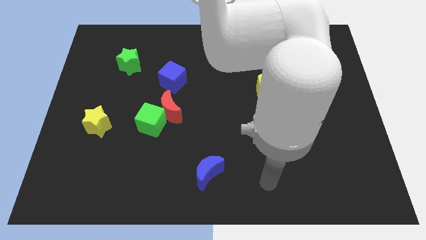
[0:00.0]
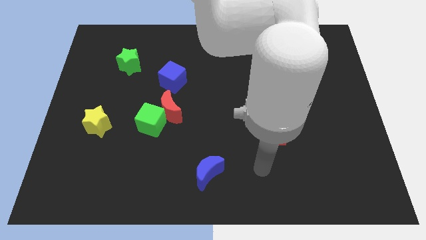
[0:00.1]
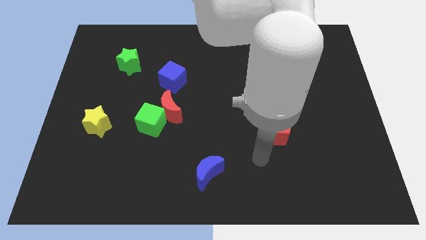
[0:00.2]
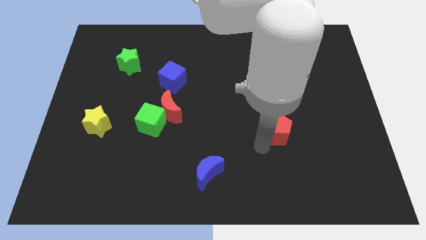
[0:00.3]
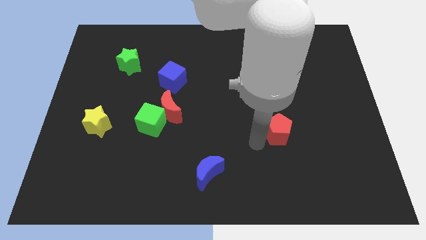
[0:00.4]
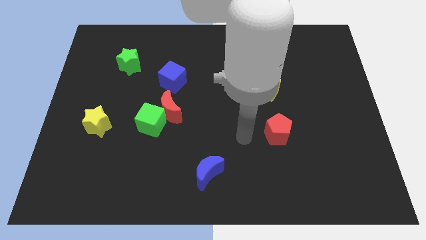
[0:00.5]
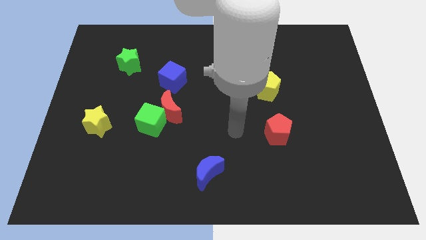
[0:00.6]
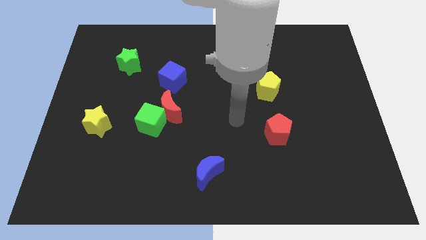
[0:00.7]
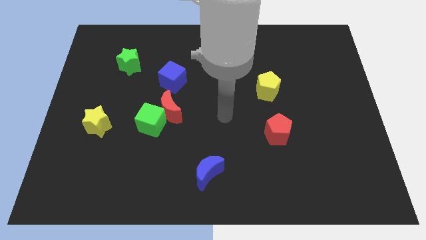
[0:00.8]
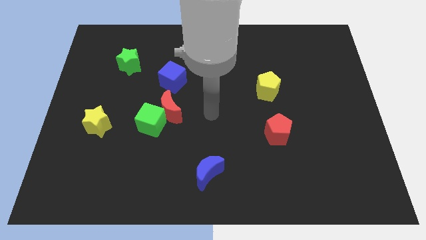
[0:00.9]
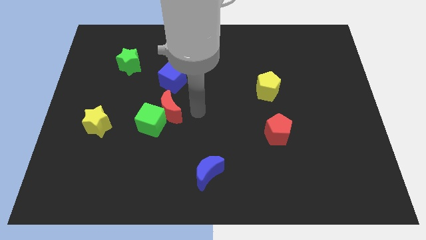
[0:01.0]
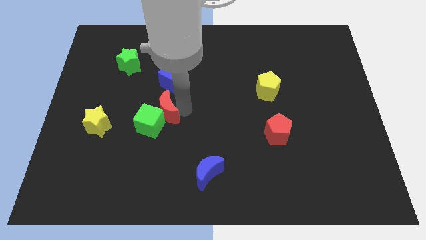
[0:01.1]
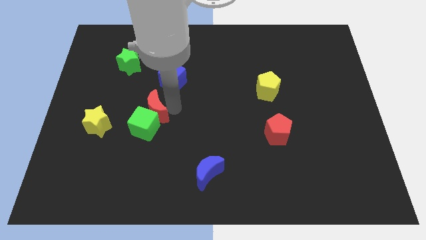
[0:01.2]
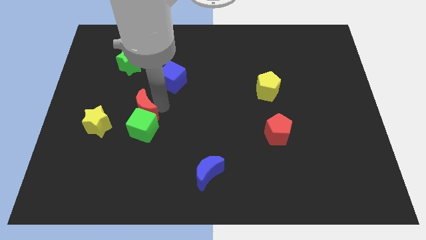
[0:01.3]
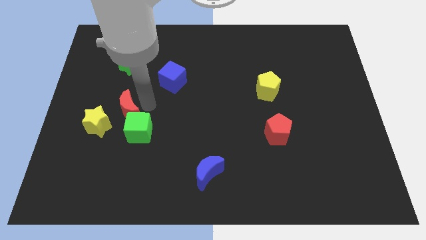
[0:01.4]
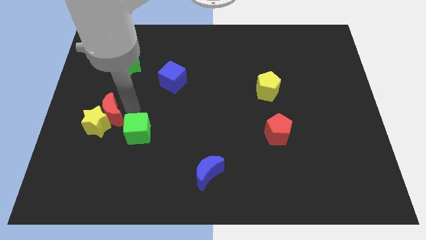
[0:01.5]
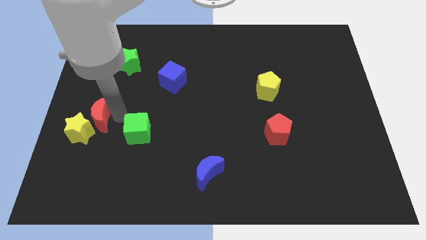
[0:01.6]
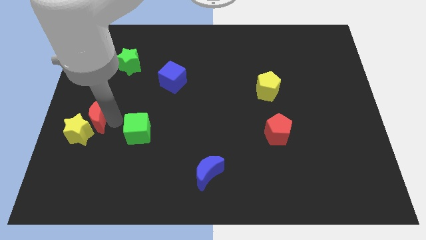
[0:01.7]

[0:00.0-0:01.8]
pull the green cube apart from the red moon

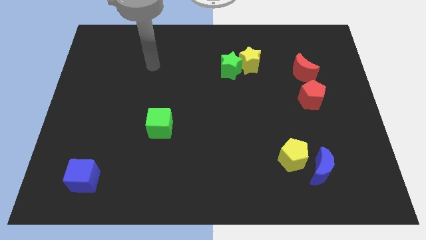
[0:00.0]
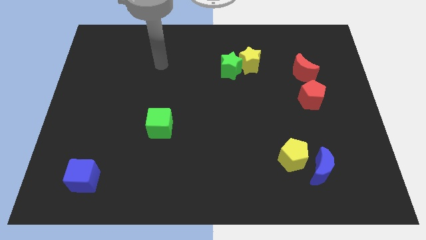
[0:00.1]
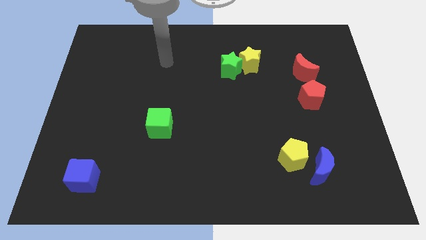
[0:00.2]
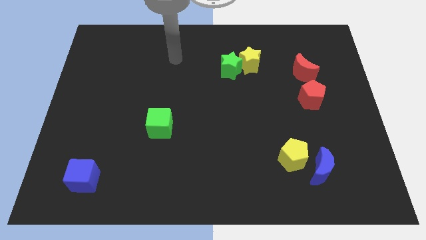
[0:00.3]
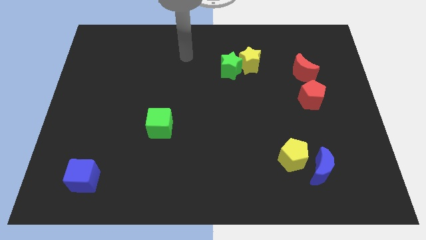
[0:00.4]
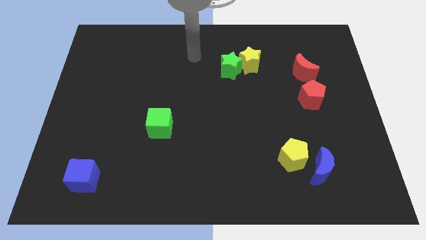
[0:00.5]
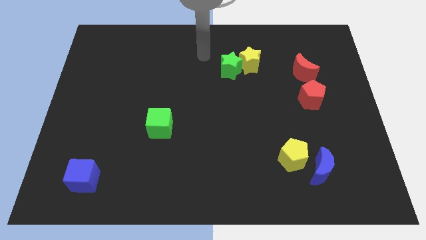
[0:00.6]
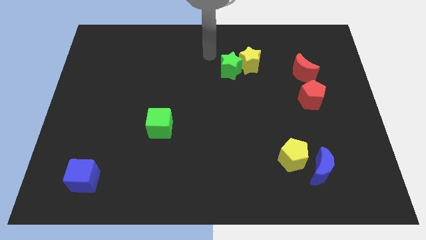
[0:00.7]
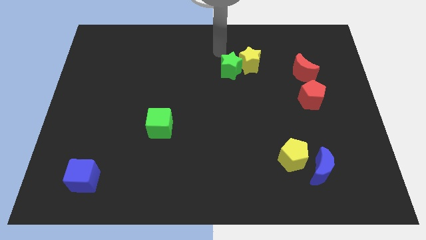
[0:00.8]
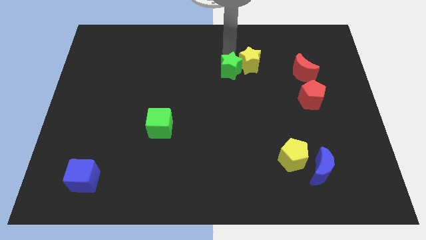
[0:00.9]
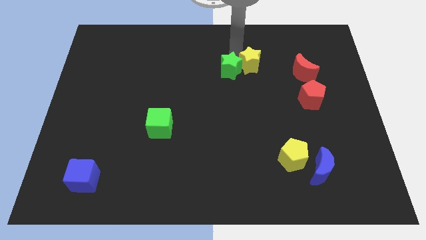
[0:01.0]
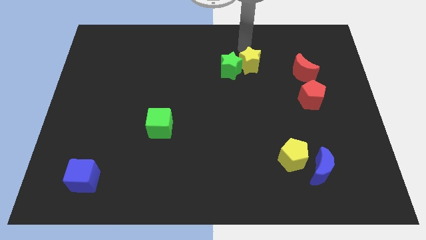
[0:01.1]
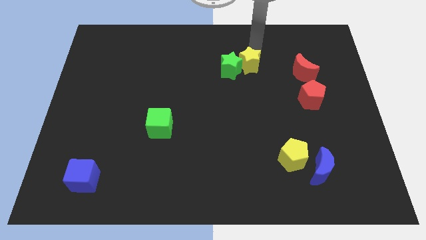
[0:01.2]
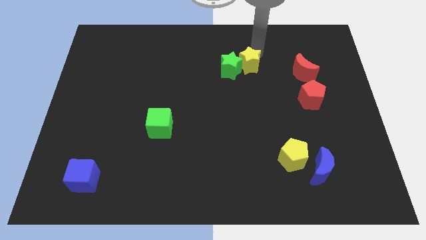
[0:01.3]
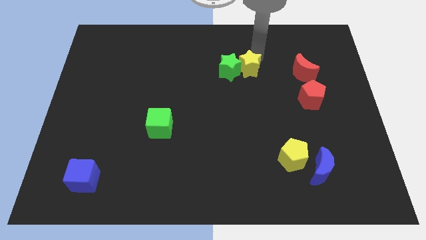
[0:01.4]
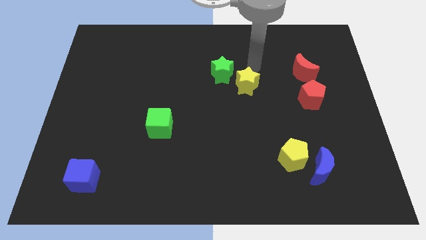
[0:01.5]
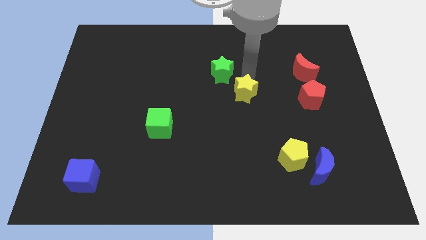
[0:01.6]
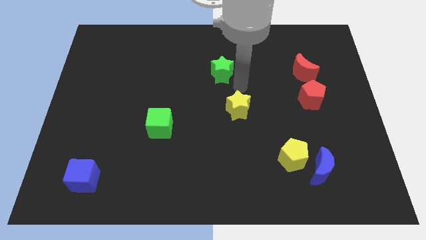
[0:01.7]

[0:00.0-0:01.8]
move the green star away from the yellow star

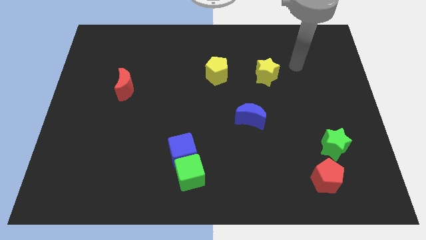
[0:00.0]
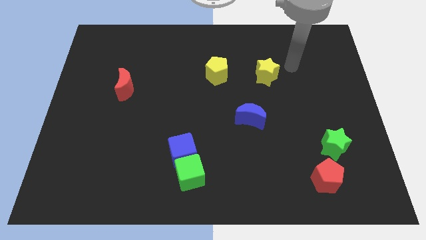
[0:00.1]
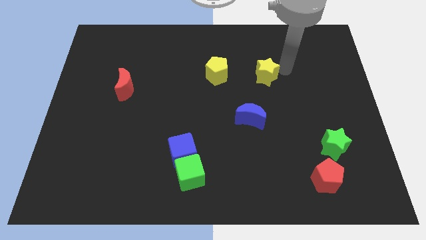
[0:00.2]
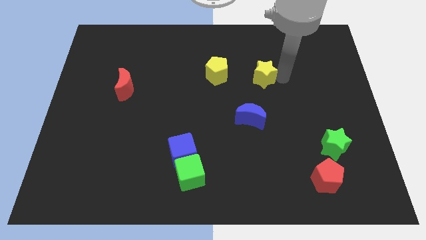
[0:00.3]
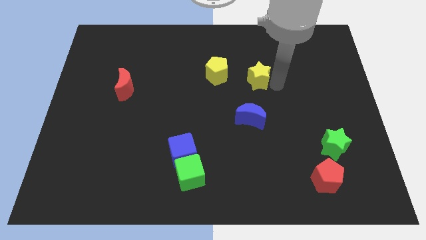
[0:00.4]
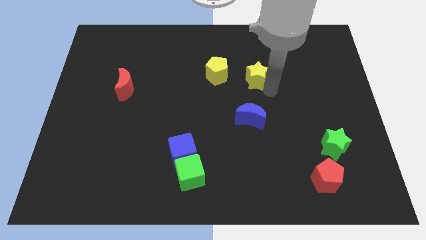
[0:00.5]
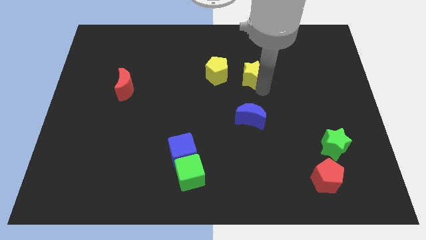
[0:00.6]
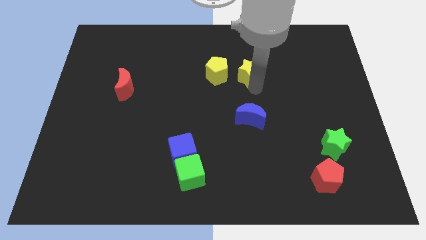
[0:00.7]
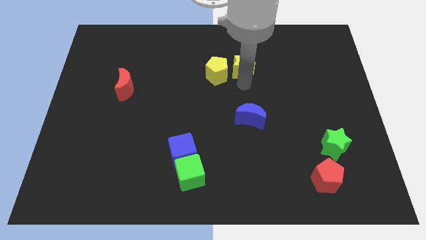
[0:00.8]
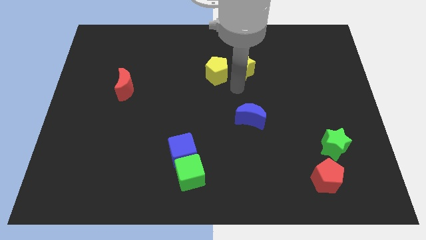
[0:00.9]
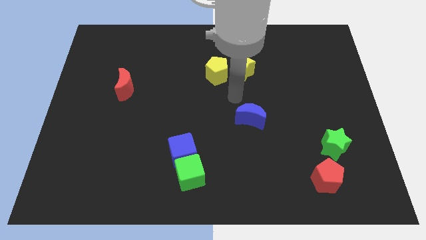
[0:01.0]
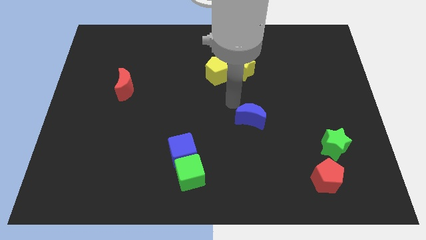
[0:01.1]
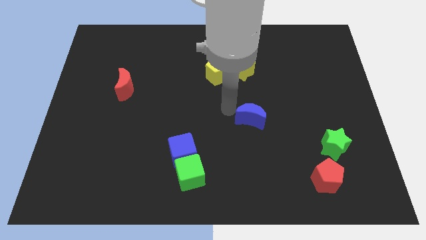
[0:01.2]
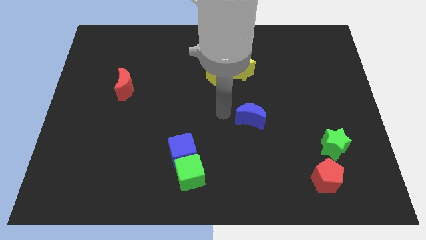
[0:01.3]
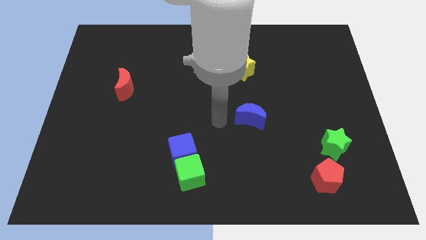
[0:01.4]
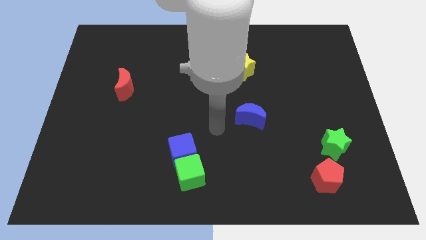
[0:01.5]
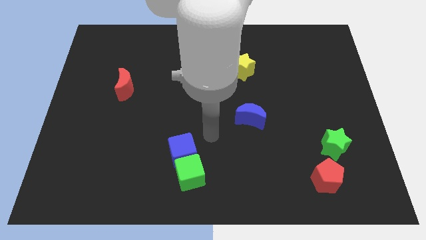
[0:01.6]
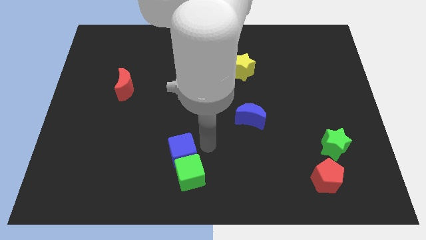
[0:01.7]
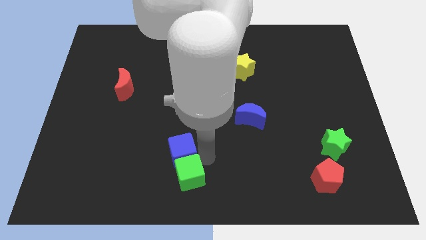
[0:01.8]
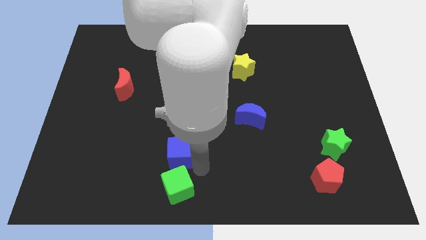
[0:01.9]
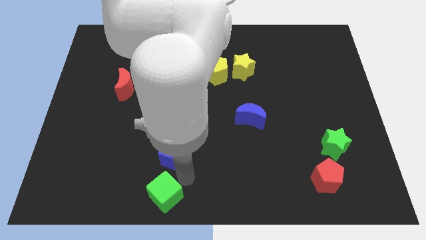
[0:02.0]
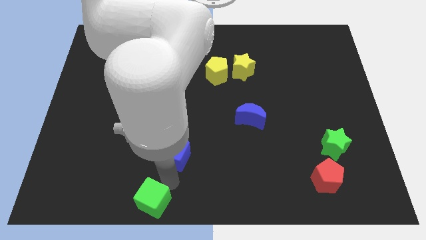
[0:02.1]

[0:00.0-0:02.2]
pull the blue cube apart from the green cube

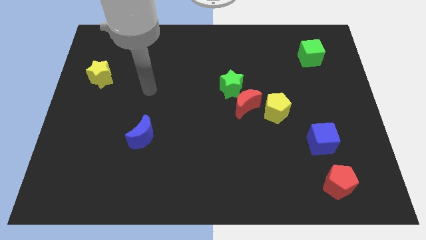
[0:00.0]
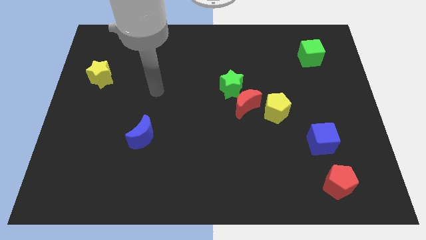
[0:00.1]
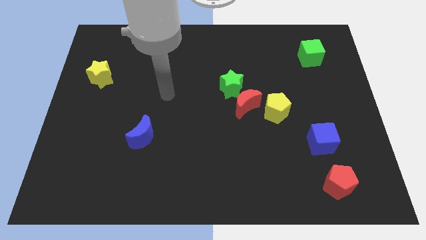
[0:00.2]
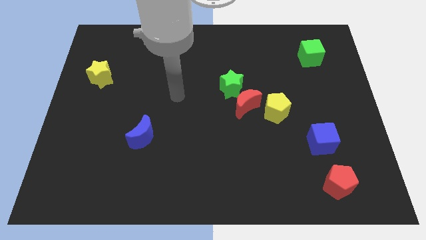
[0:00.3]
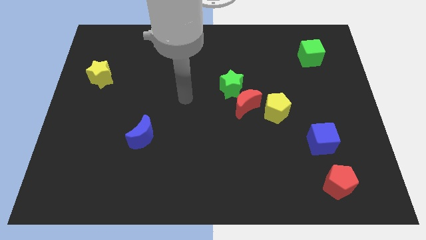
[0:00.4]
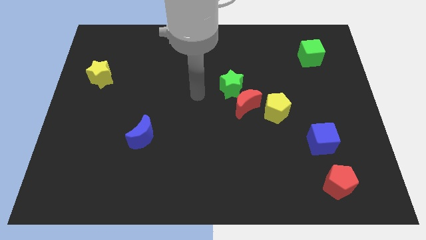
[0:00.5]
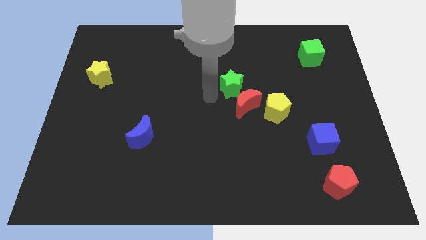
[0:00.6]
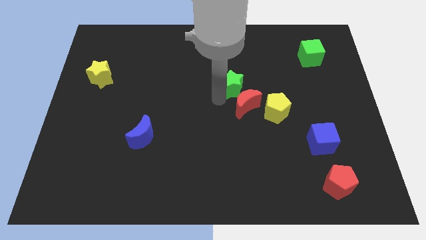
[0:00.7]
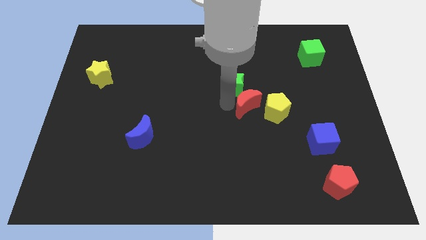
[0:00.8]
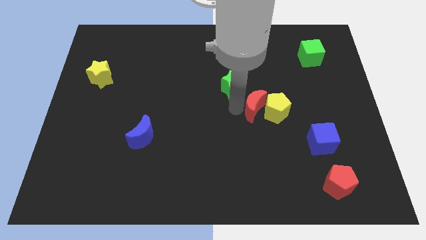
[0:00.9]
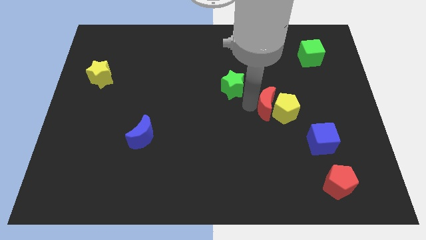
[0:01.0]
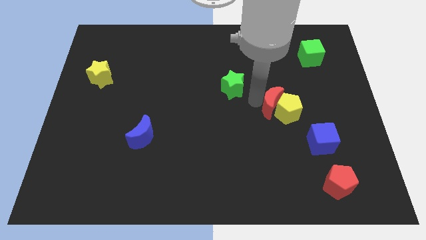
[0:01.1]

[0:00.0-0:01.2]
move the green star away from the red moon

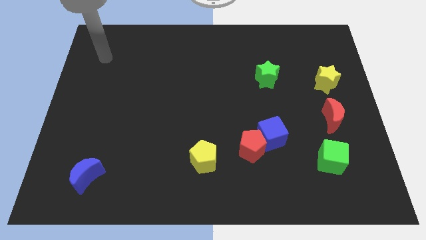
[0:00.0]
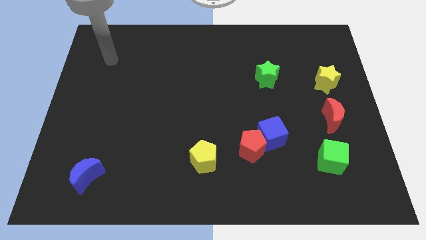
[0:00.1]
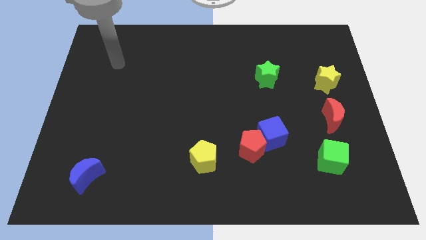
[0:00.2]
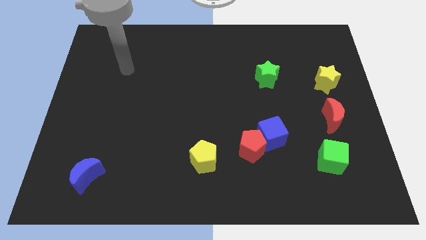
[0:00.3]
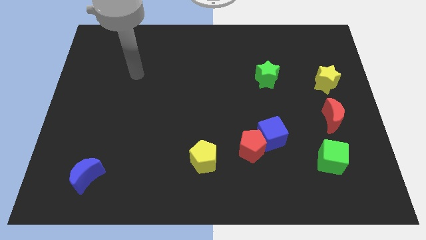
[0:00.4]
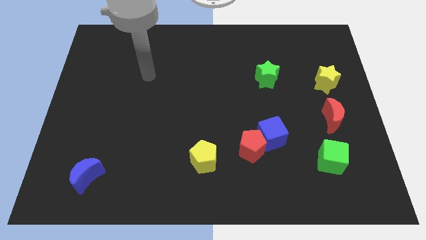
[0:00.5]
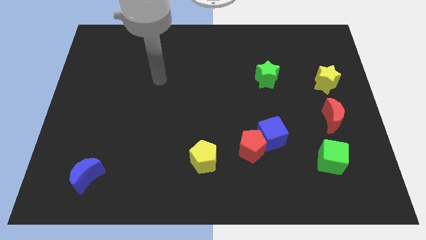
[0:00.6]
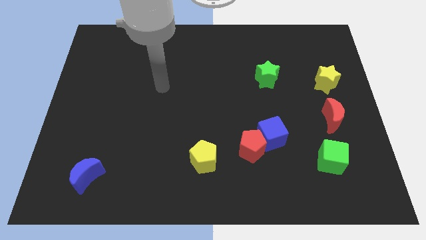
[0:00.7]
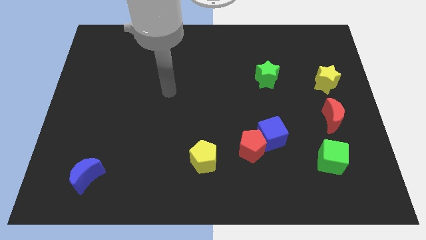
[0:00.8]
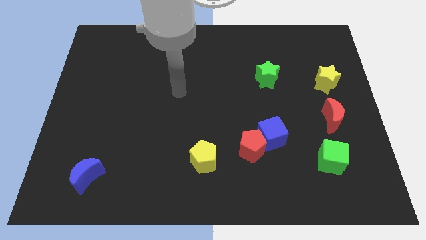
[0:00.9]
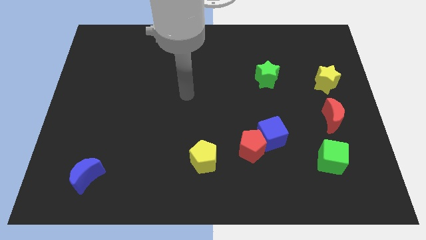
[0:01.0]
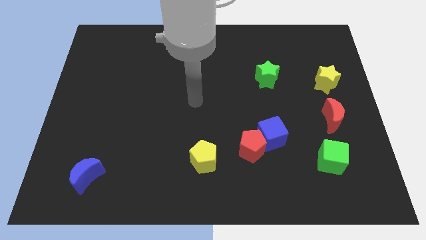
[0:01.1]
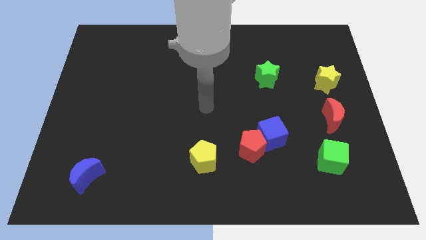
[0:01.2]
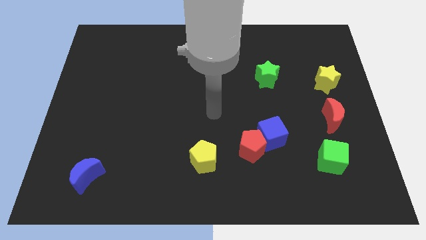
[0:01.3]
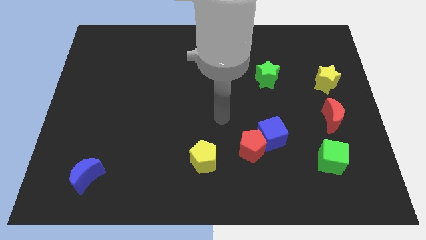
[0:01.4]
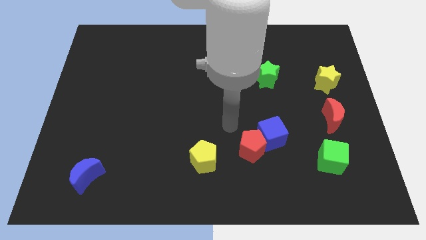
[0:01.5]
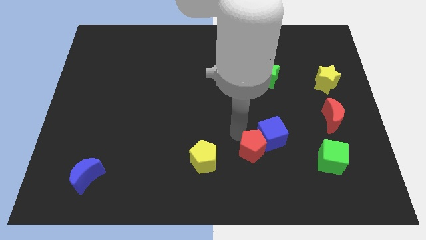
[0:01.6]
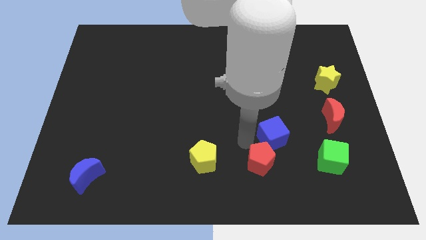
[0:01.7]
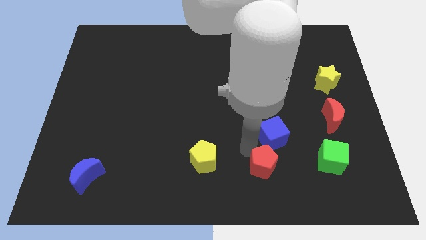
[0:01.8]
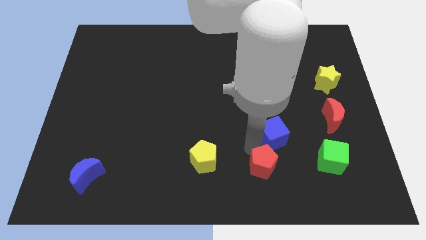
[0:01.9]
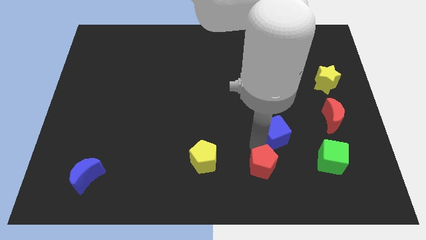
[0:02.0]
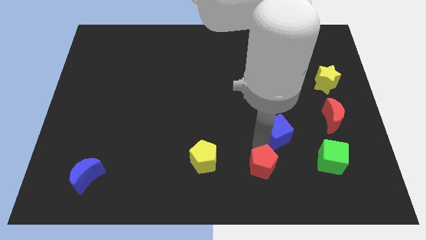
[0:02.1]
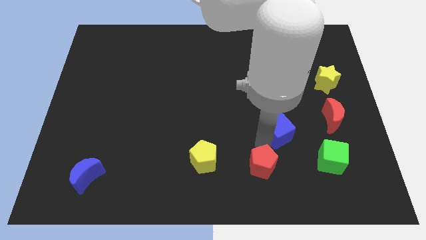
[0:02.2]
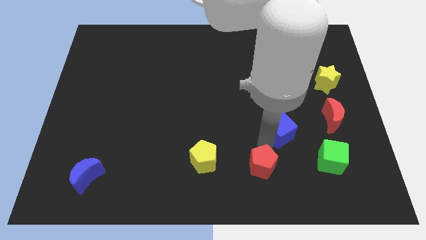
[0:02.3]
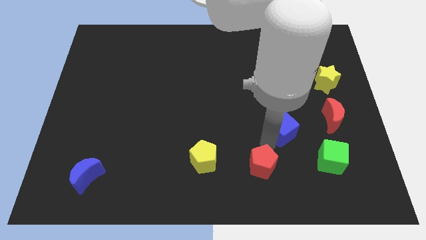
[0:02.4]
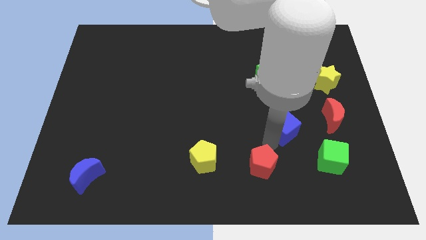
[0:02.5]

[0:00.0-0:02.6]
move the blue cube away from the red pentagon
